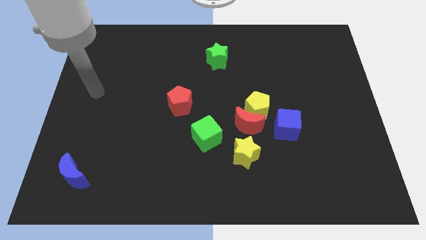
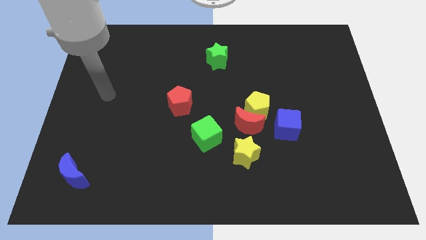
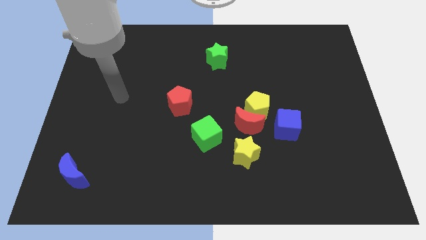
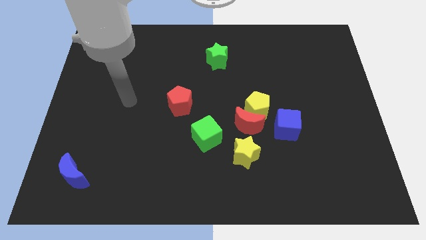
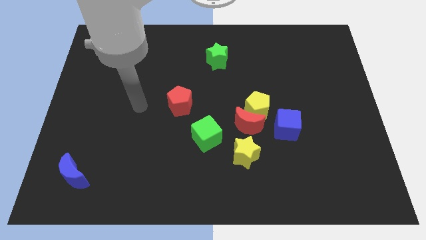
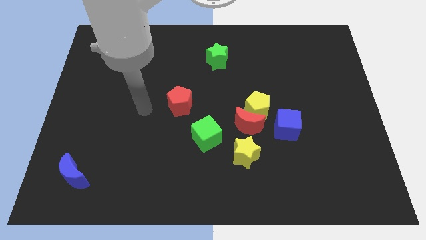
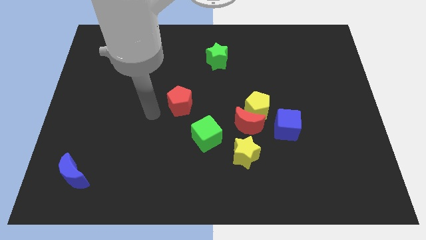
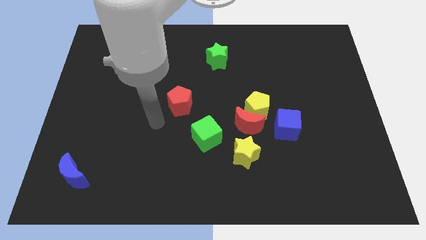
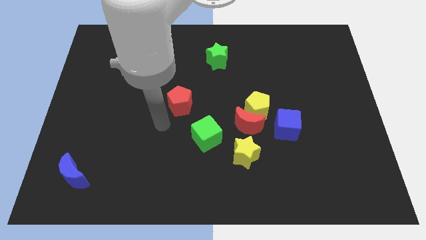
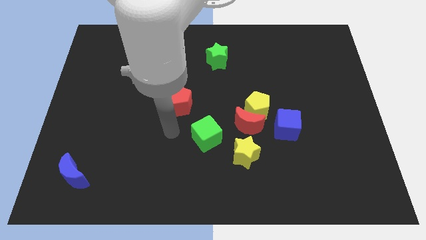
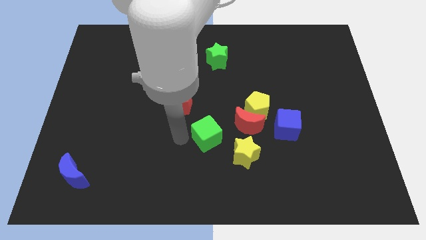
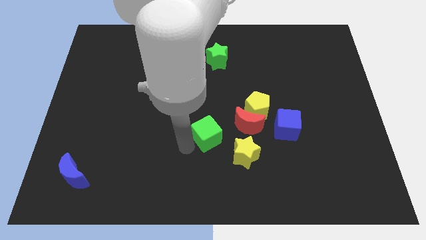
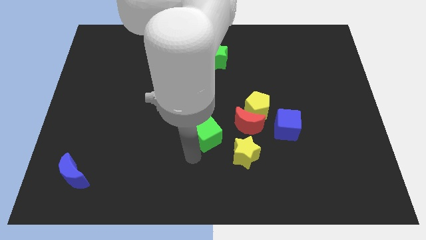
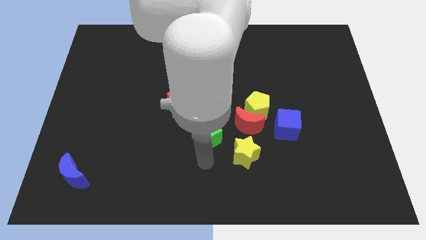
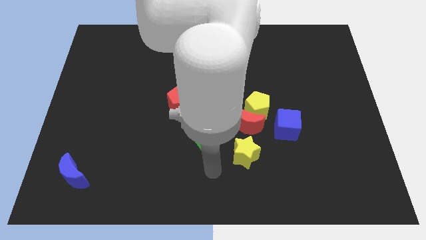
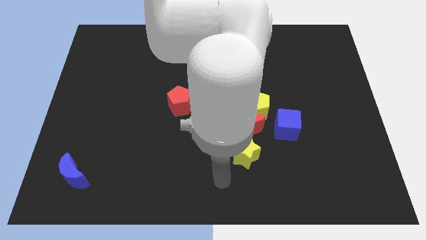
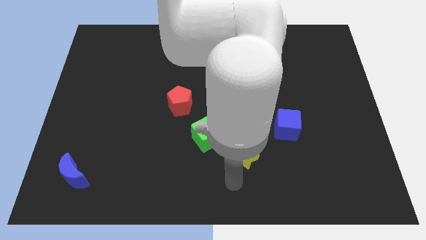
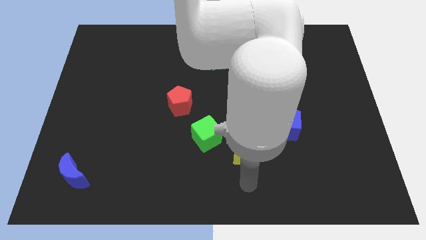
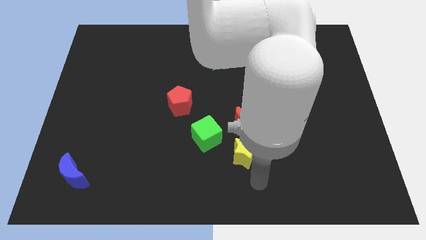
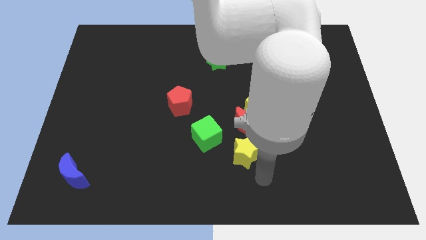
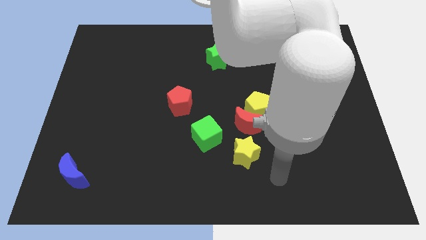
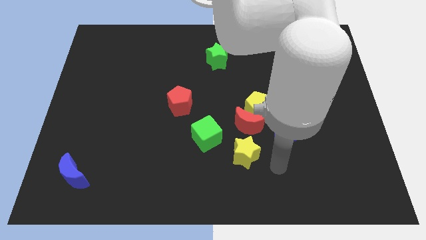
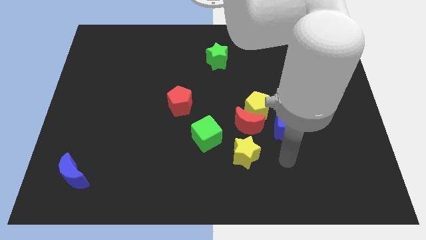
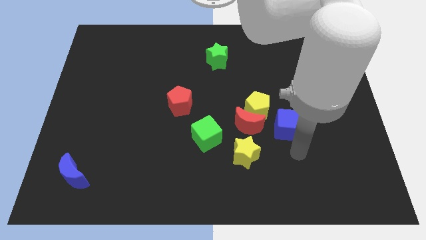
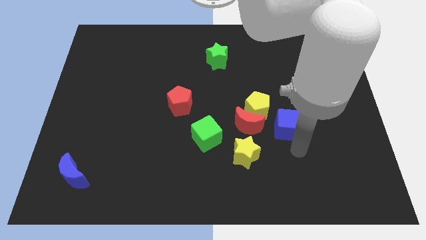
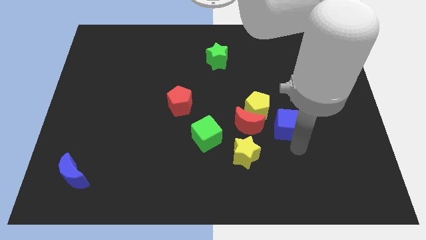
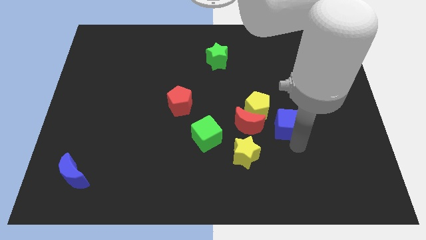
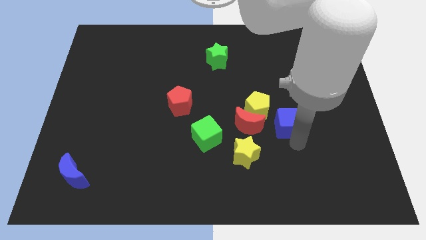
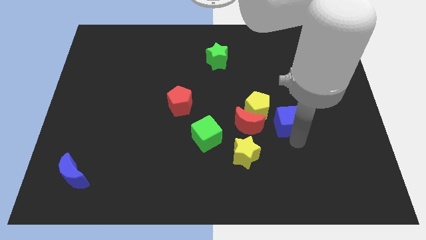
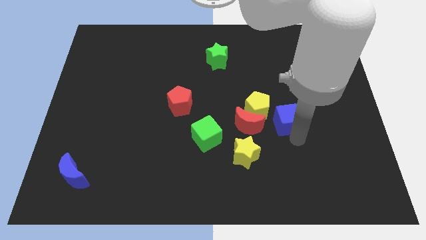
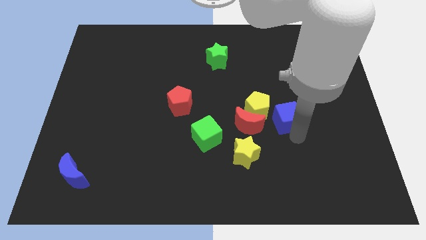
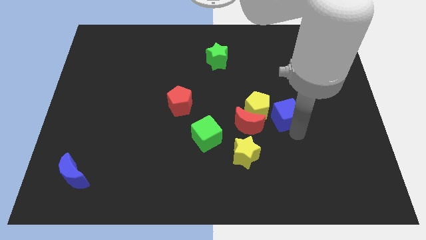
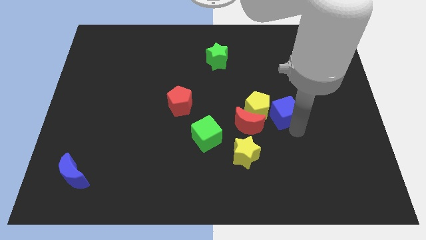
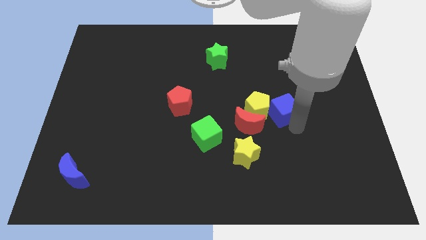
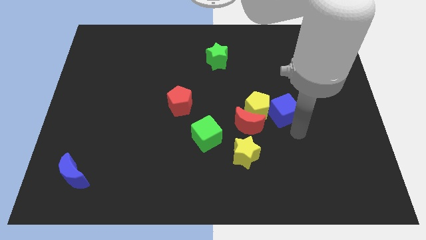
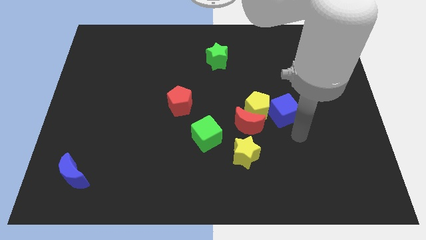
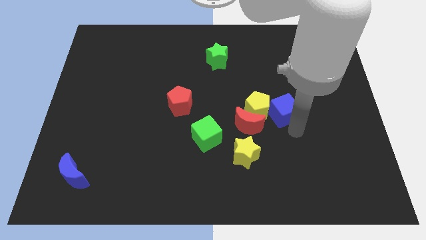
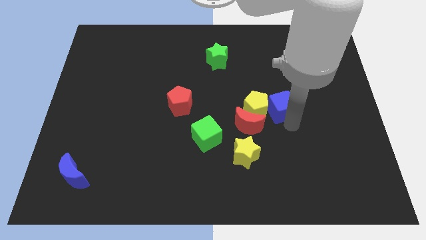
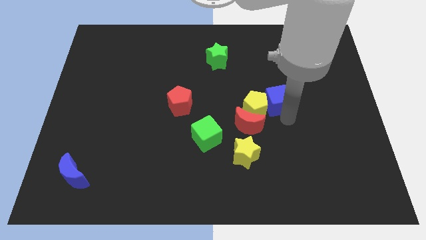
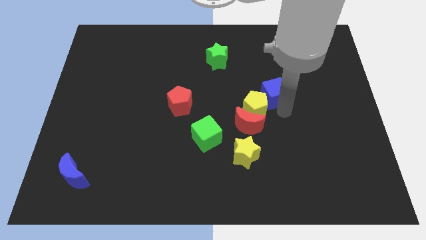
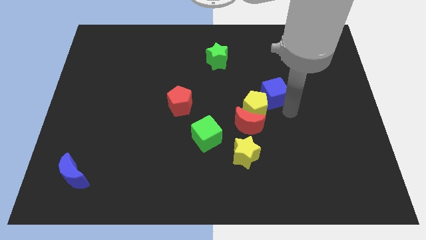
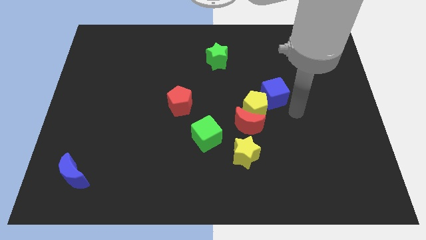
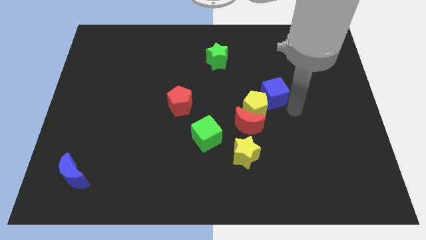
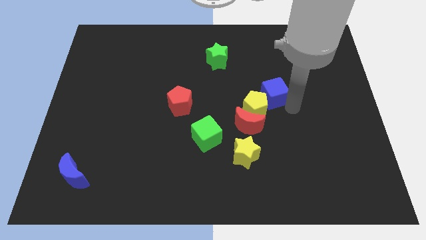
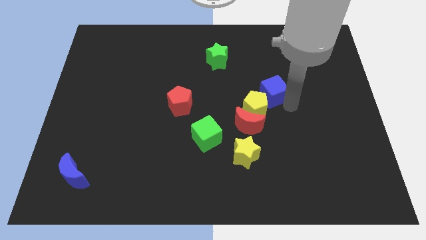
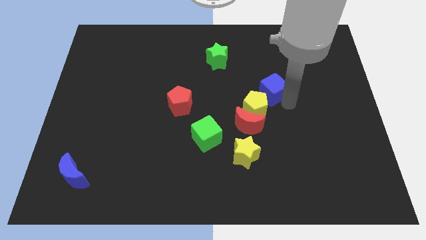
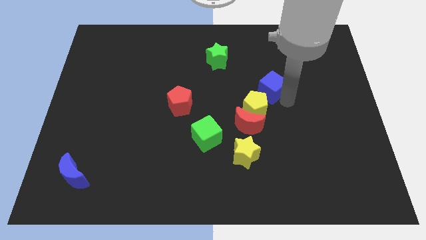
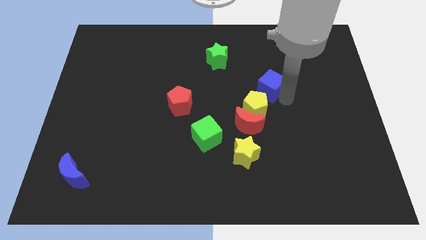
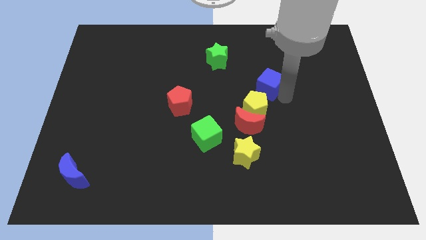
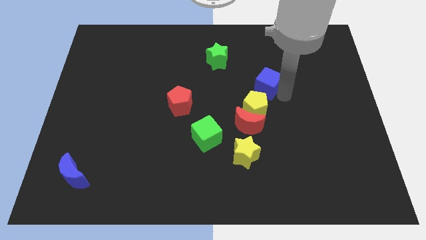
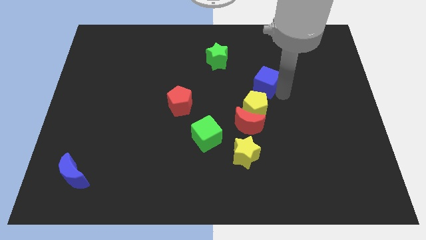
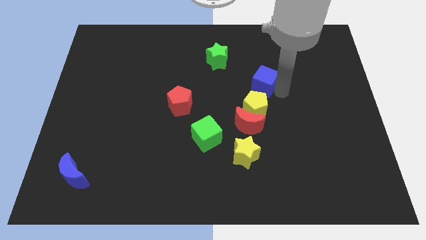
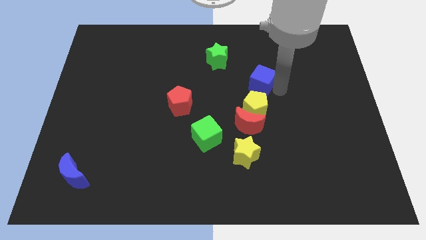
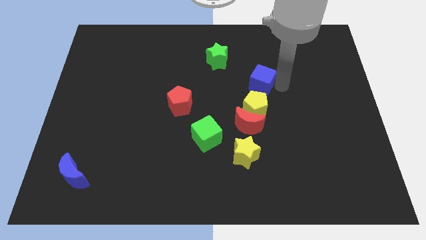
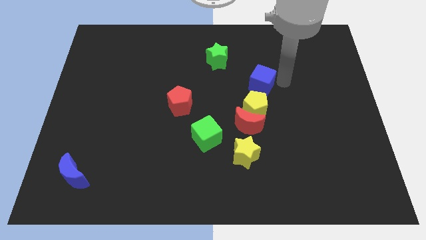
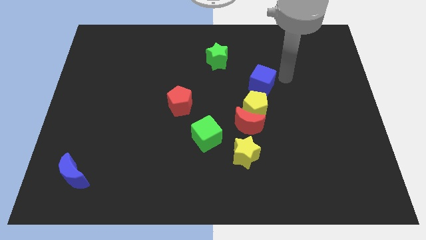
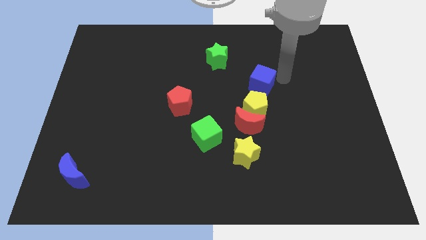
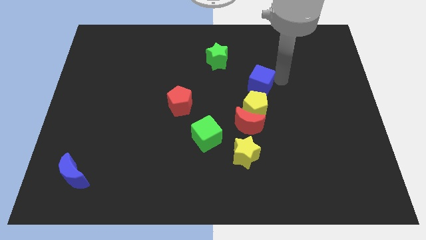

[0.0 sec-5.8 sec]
put the blue cube to the middle of the board

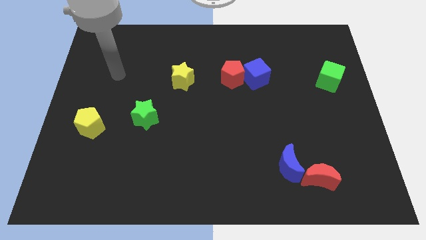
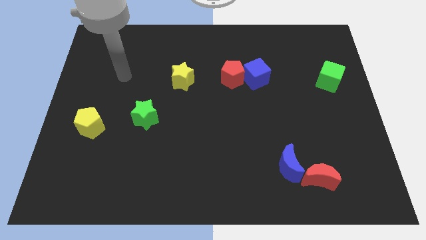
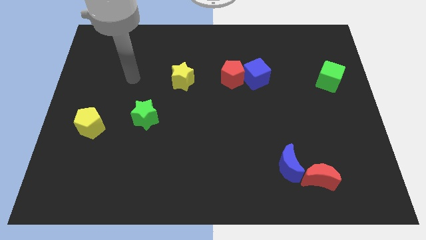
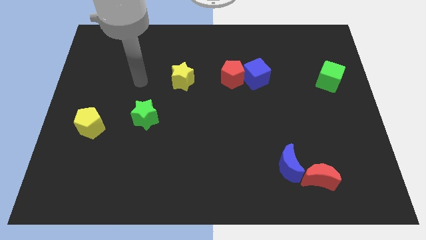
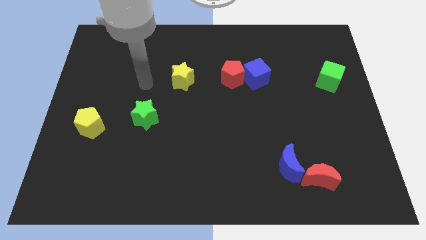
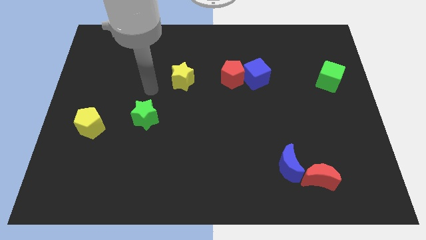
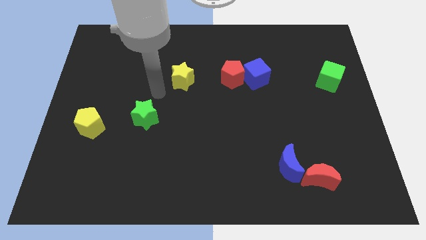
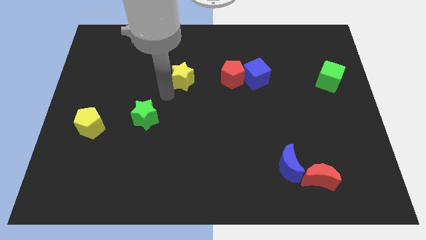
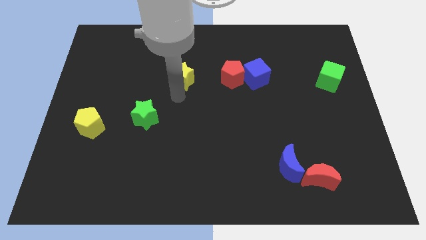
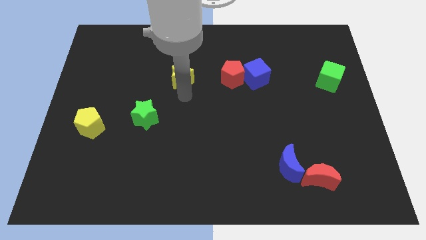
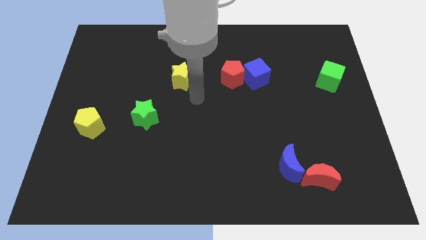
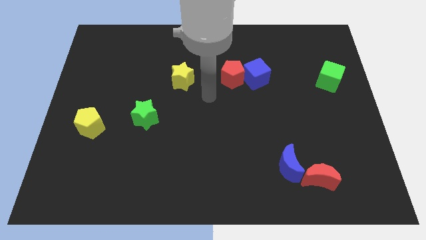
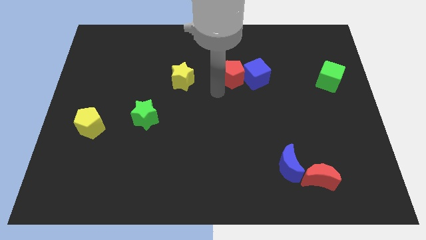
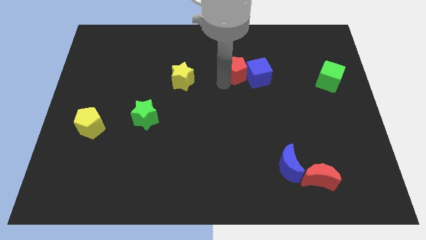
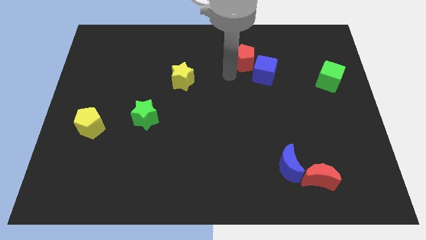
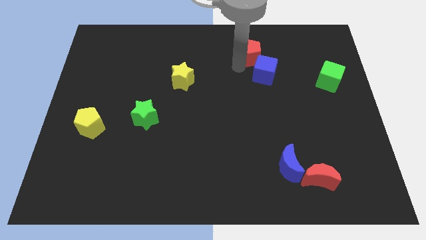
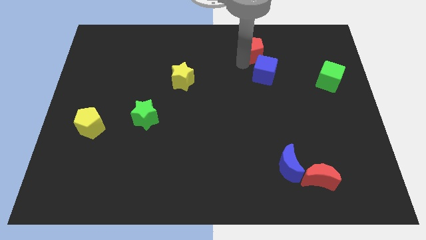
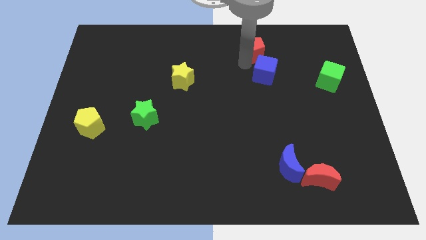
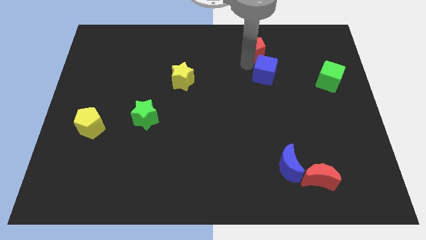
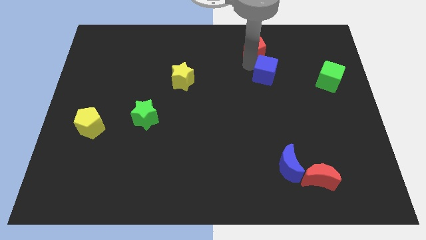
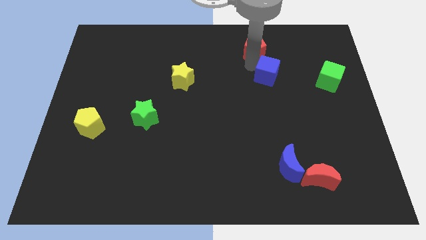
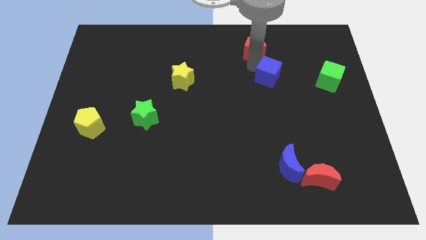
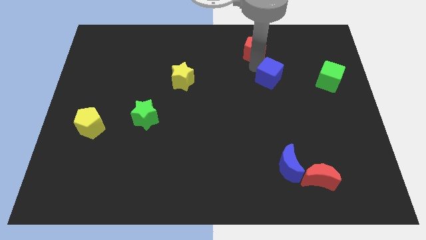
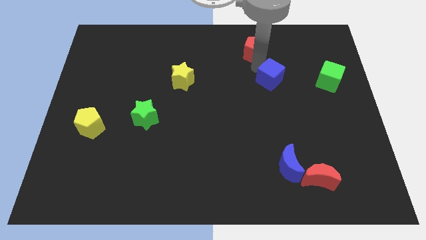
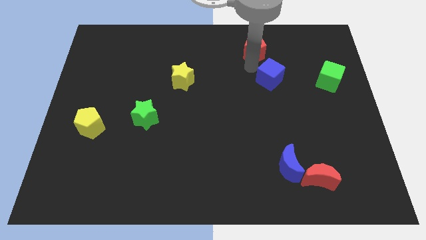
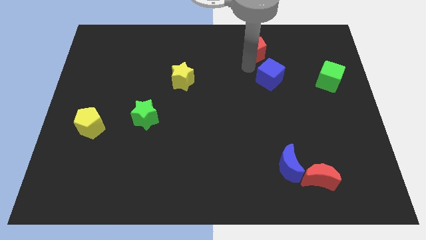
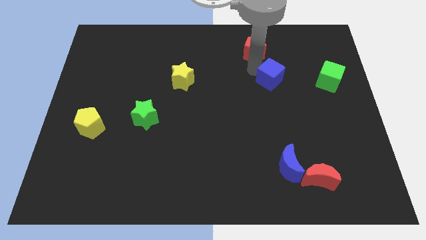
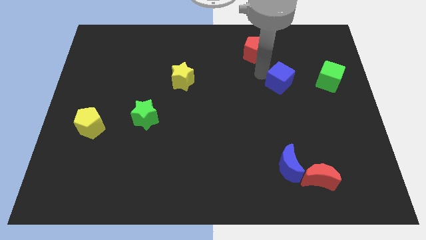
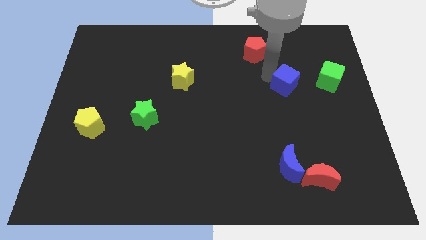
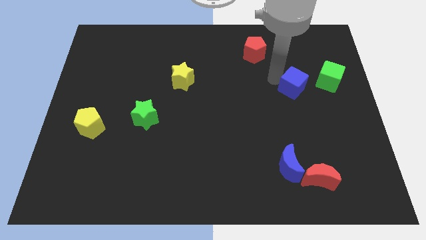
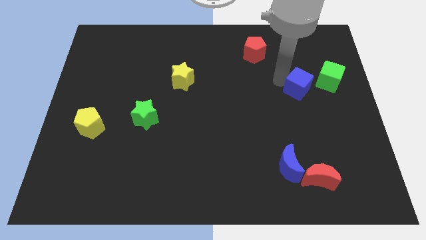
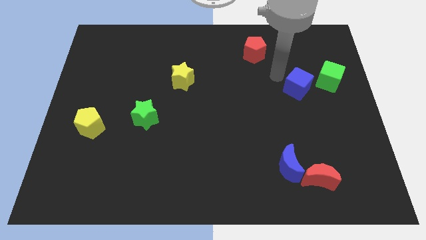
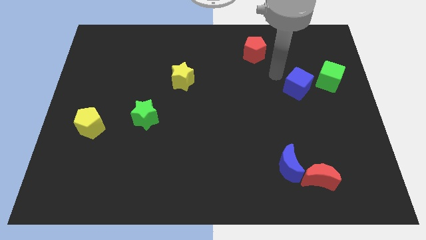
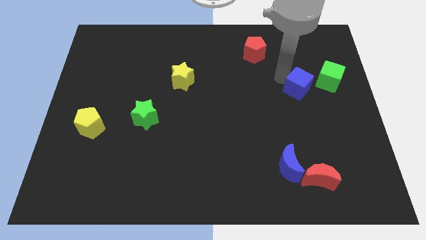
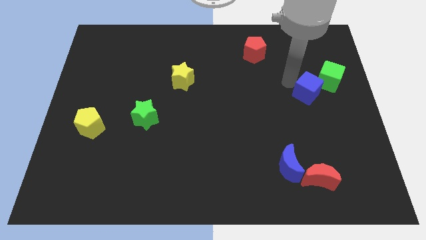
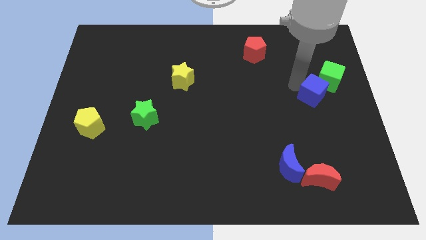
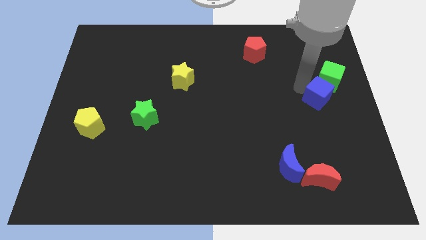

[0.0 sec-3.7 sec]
move the blue cube to the right side
